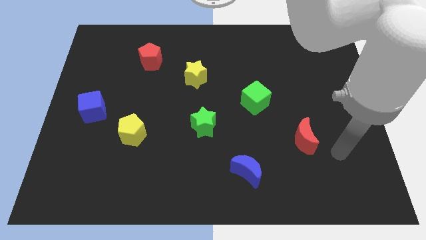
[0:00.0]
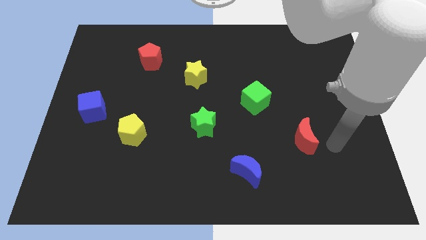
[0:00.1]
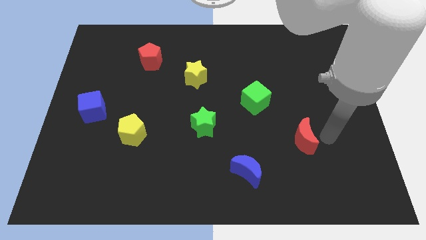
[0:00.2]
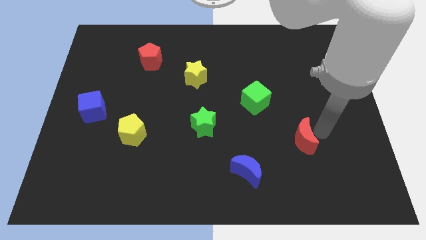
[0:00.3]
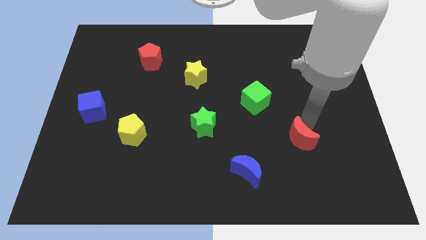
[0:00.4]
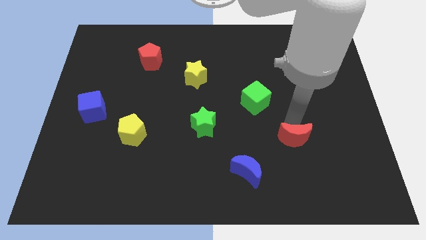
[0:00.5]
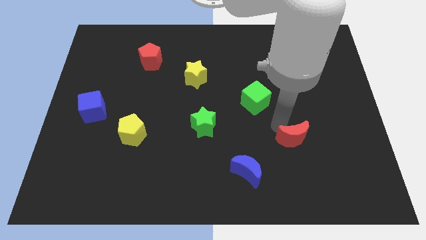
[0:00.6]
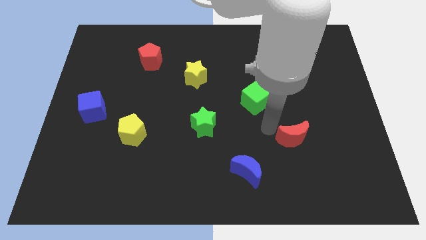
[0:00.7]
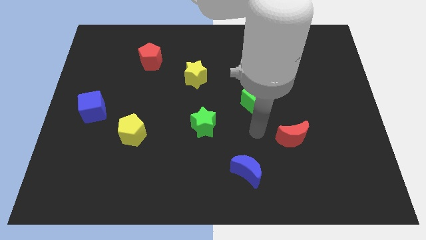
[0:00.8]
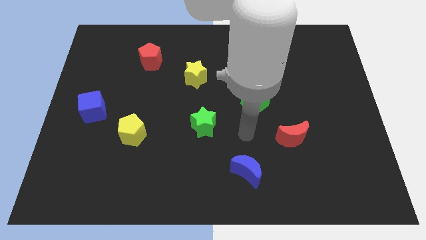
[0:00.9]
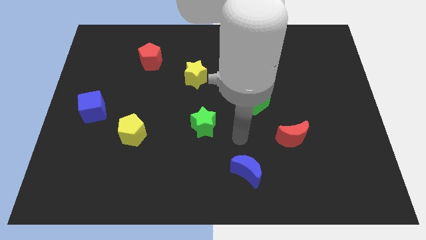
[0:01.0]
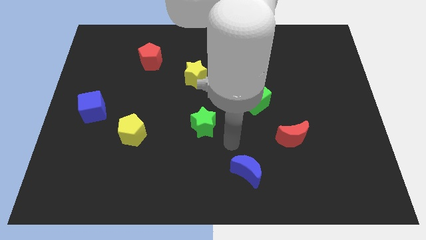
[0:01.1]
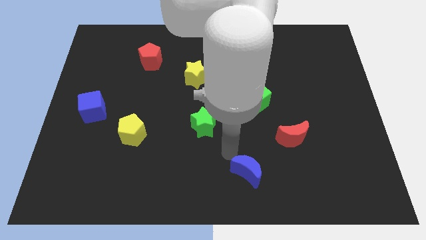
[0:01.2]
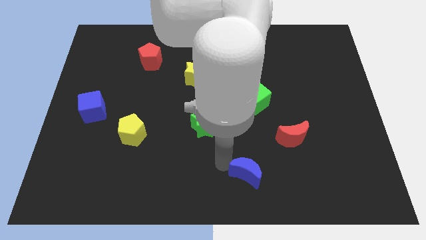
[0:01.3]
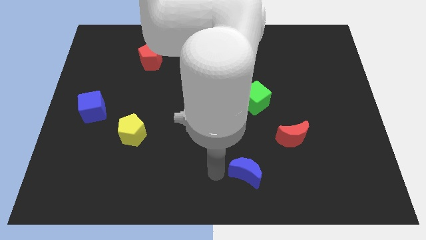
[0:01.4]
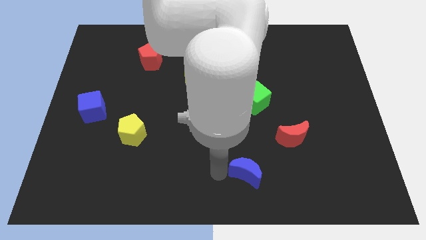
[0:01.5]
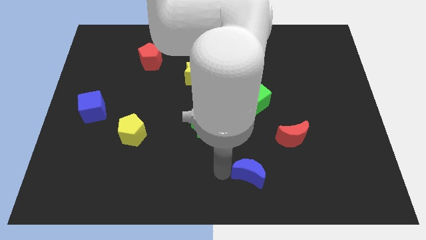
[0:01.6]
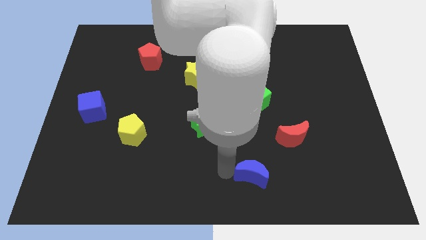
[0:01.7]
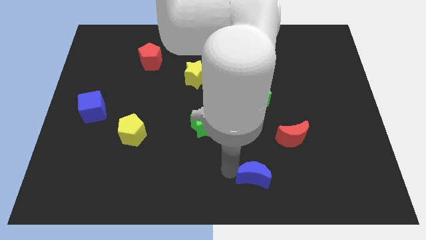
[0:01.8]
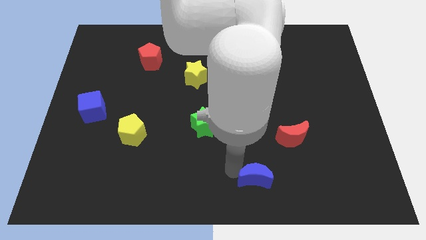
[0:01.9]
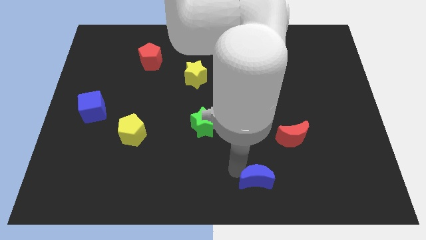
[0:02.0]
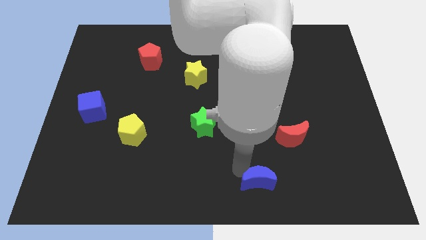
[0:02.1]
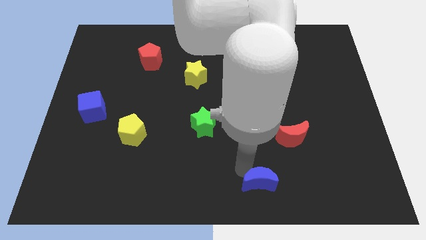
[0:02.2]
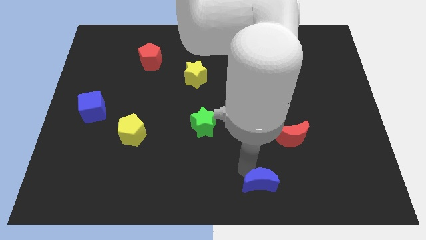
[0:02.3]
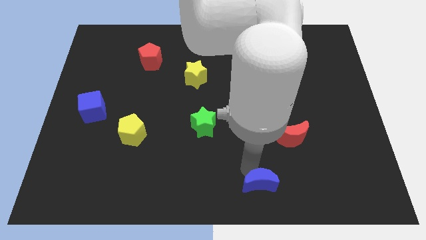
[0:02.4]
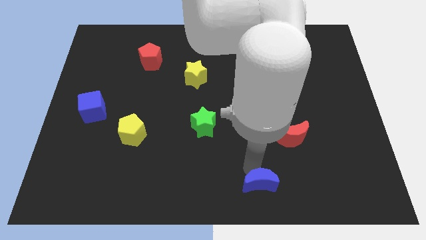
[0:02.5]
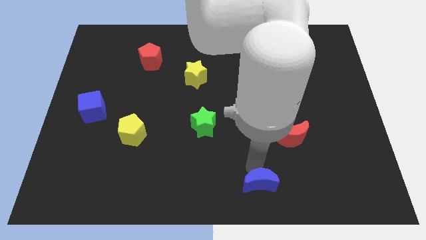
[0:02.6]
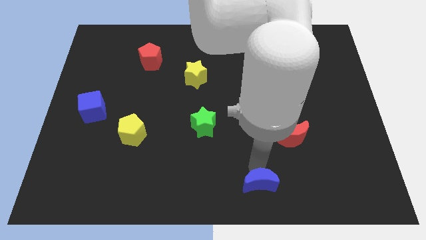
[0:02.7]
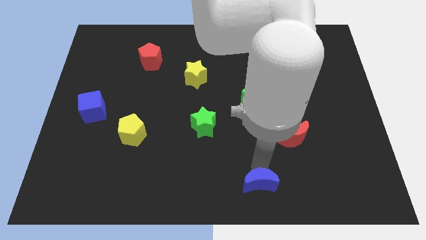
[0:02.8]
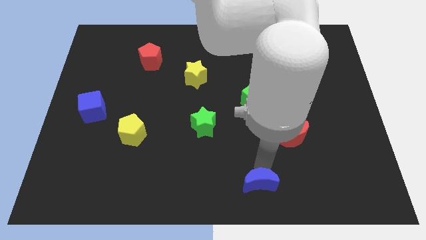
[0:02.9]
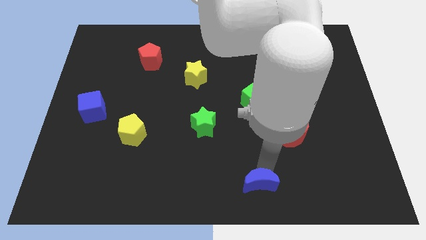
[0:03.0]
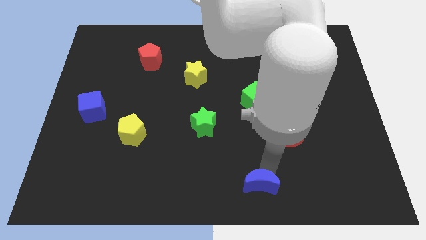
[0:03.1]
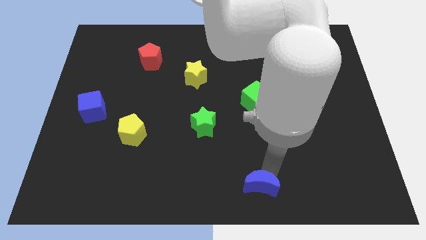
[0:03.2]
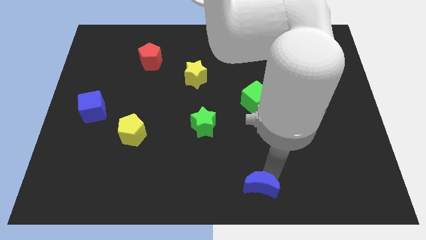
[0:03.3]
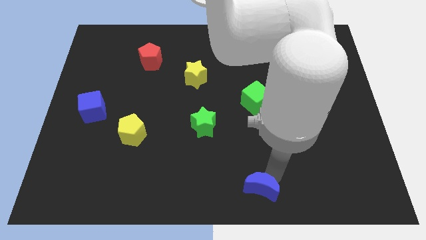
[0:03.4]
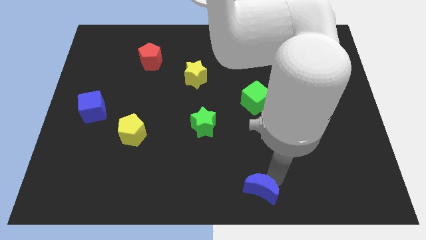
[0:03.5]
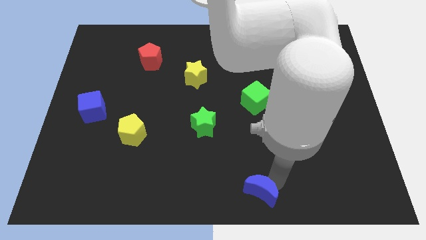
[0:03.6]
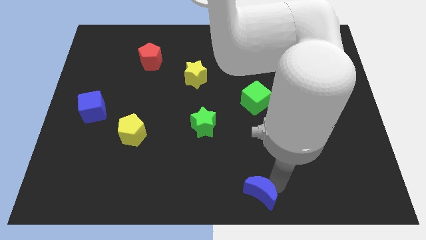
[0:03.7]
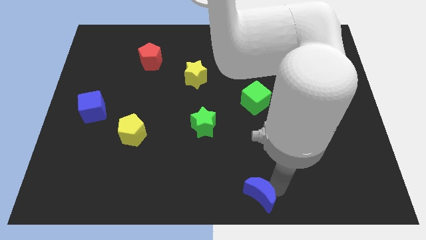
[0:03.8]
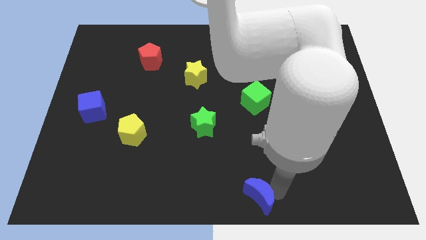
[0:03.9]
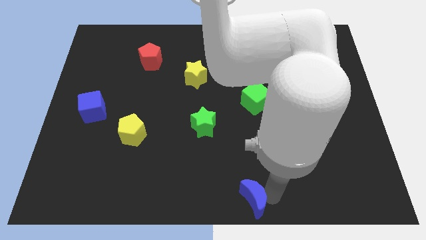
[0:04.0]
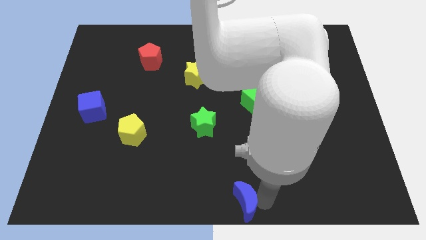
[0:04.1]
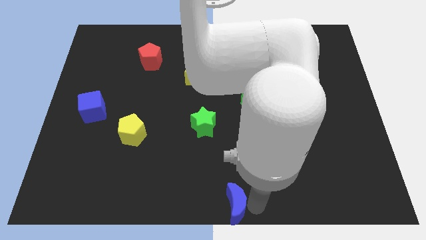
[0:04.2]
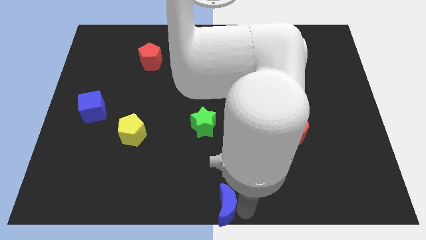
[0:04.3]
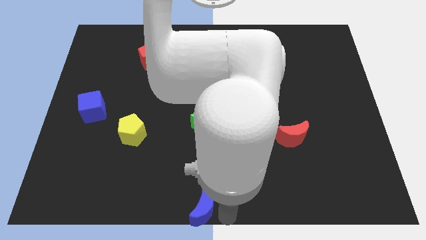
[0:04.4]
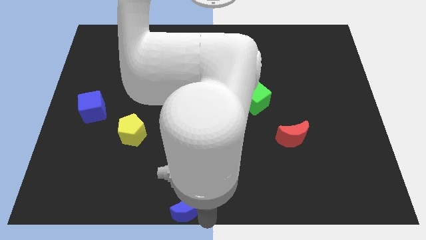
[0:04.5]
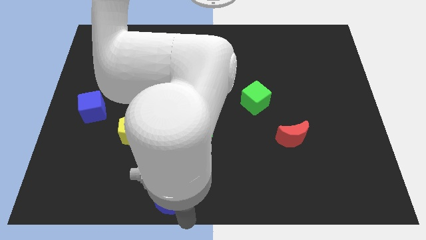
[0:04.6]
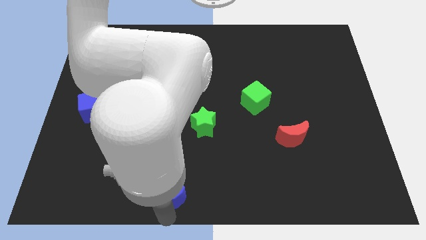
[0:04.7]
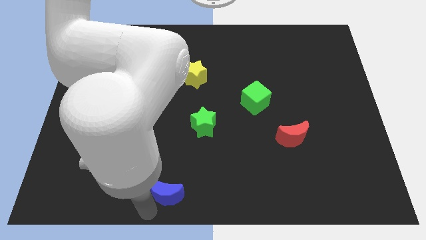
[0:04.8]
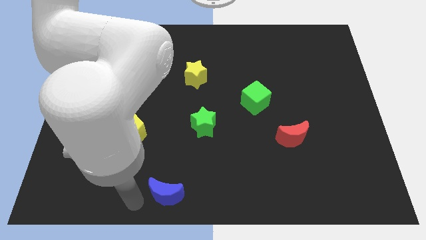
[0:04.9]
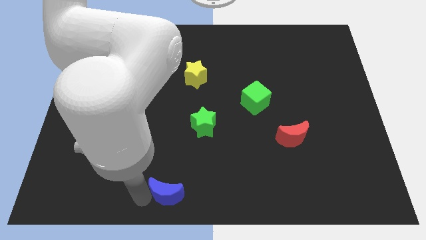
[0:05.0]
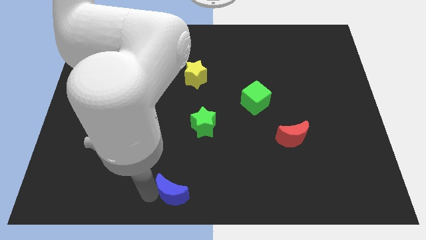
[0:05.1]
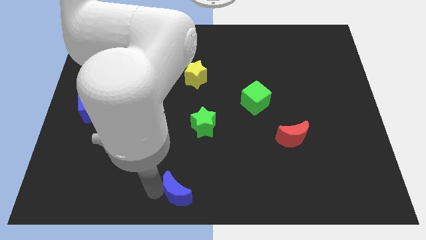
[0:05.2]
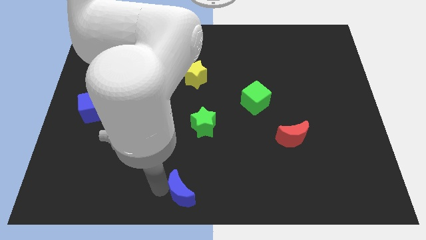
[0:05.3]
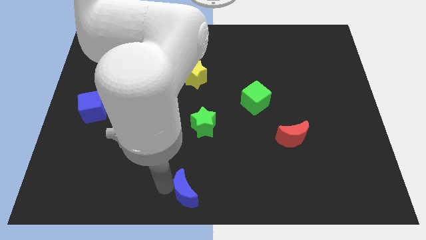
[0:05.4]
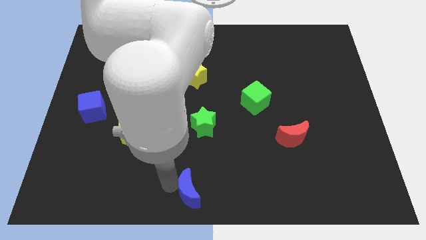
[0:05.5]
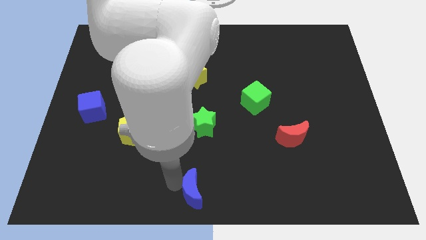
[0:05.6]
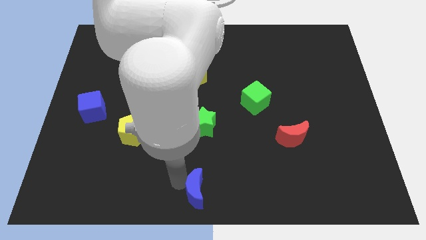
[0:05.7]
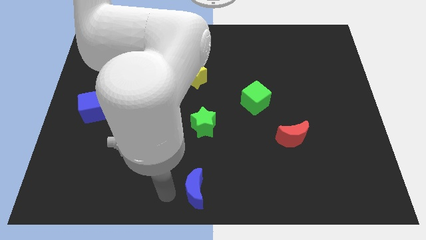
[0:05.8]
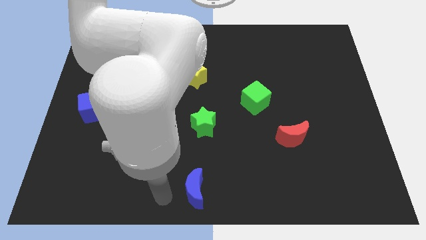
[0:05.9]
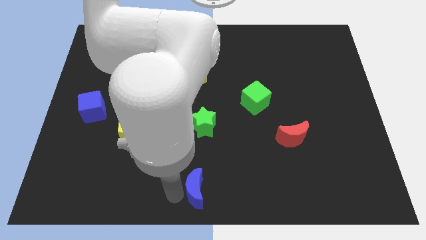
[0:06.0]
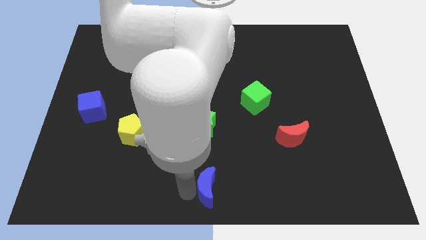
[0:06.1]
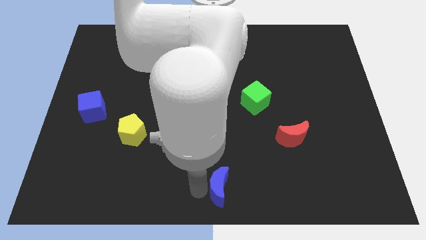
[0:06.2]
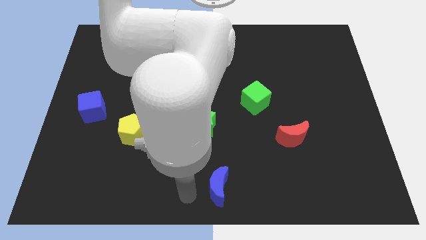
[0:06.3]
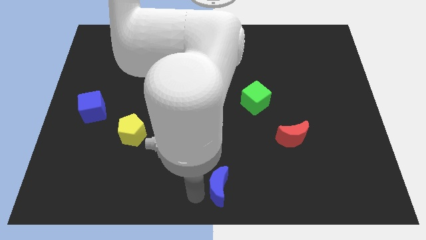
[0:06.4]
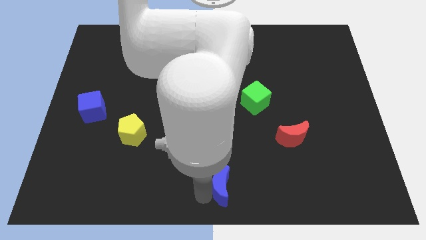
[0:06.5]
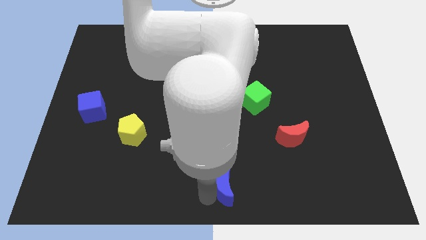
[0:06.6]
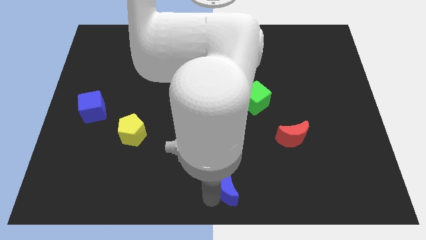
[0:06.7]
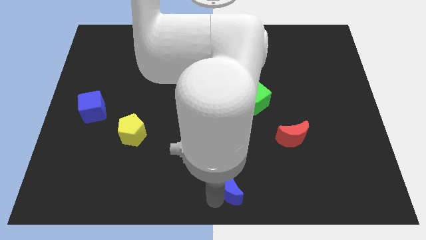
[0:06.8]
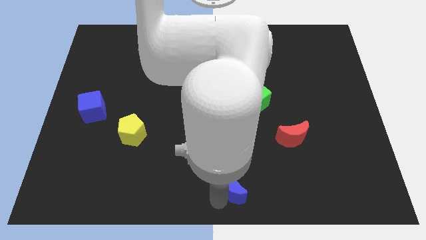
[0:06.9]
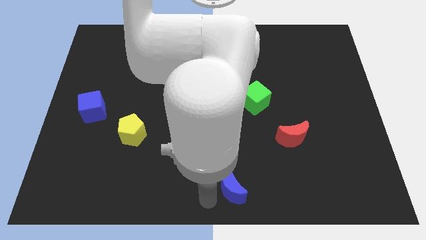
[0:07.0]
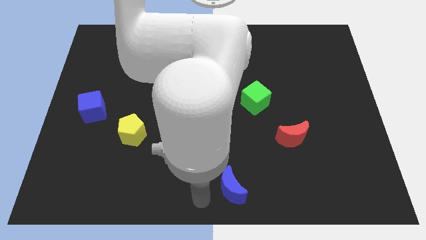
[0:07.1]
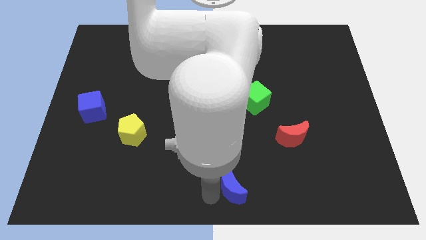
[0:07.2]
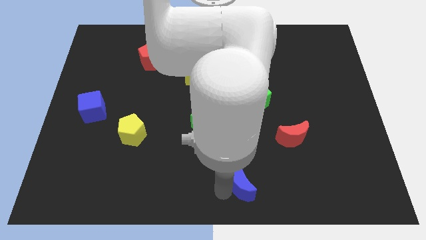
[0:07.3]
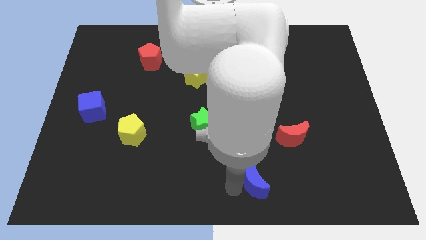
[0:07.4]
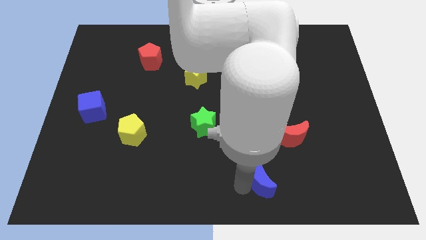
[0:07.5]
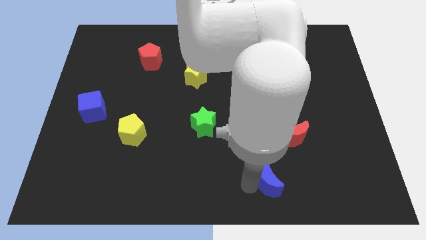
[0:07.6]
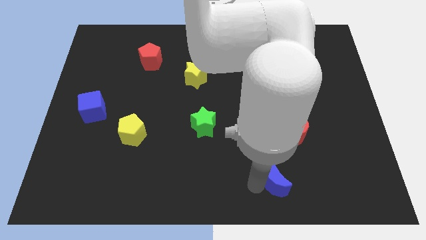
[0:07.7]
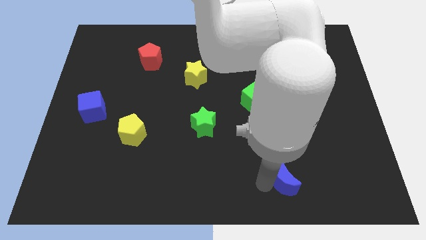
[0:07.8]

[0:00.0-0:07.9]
push the blue moon right a bit

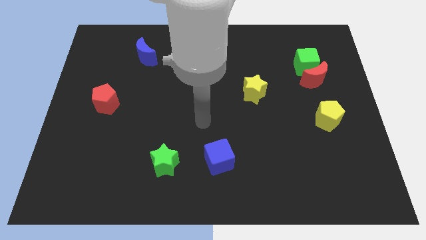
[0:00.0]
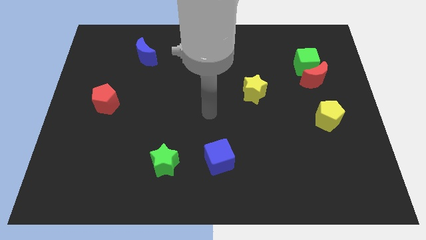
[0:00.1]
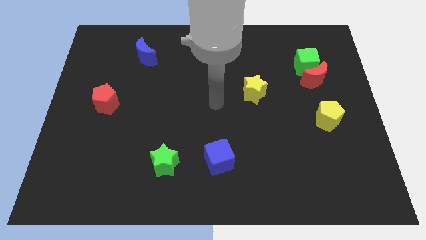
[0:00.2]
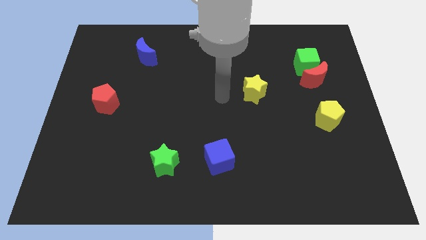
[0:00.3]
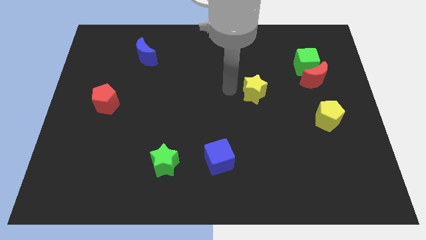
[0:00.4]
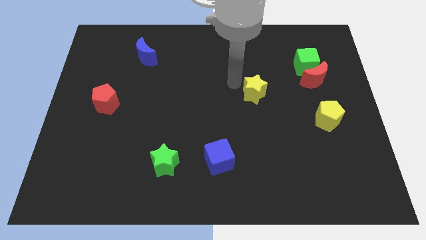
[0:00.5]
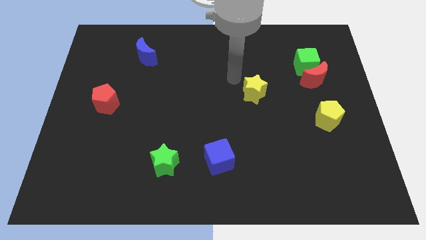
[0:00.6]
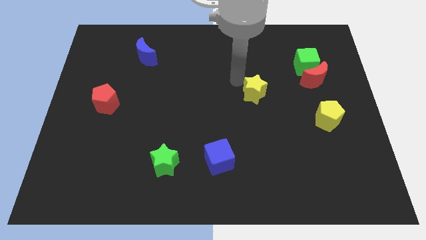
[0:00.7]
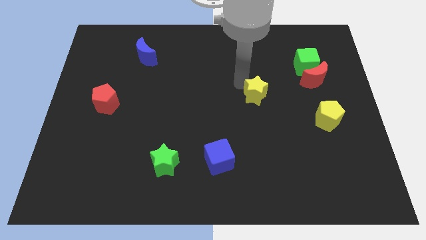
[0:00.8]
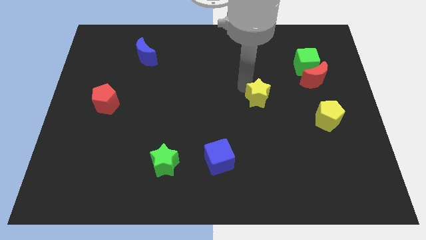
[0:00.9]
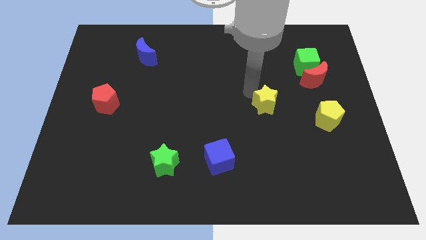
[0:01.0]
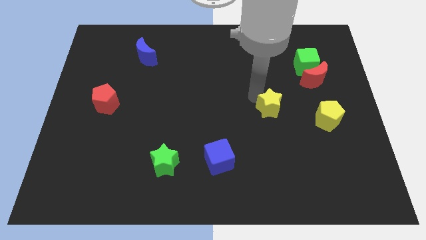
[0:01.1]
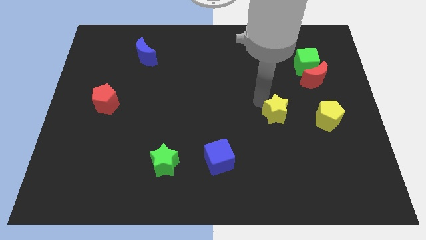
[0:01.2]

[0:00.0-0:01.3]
slide the yellow star a little down and to the right diagonally
